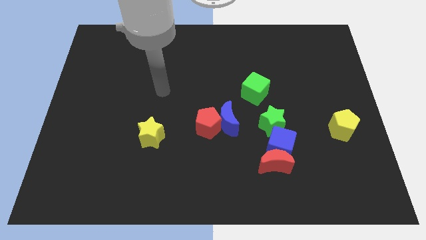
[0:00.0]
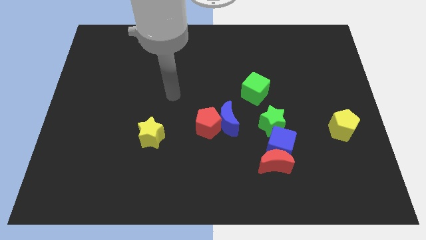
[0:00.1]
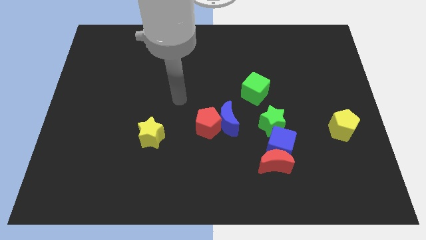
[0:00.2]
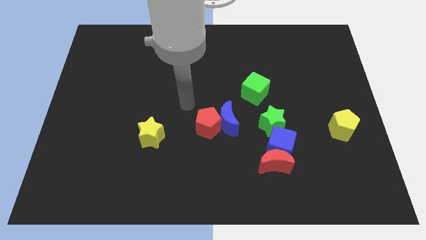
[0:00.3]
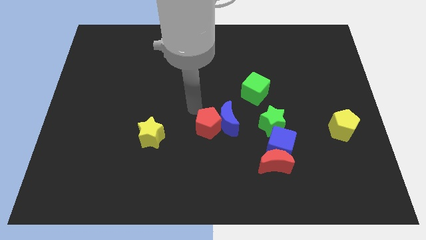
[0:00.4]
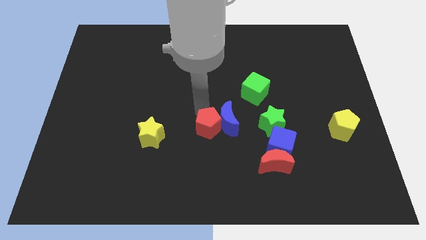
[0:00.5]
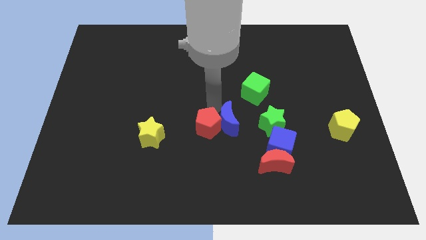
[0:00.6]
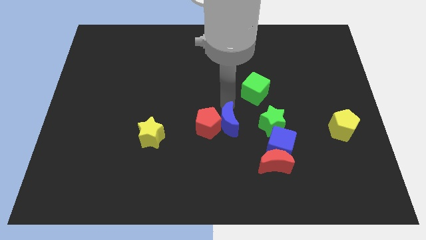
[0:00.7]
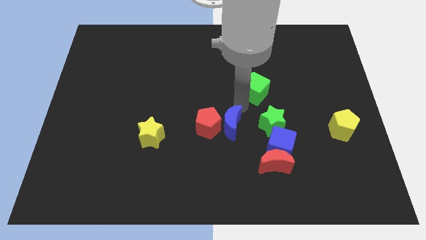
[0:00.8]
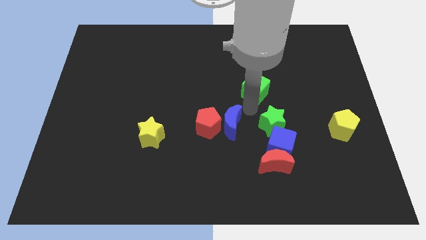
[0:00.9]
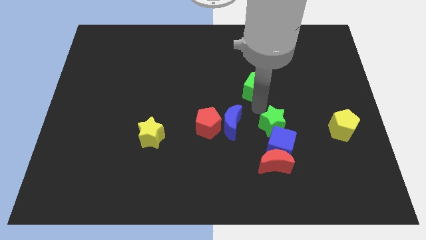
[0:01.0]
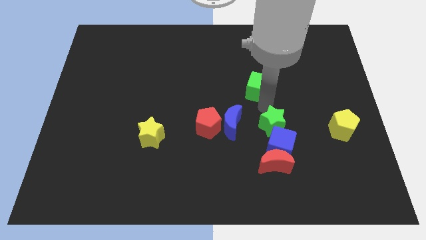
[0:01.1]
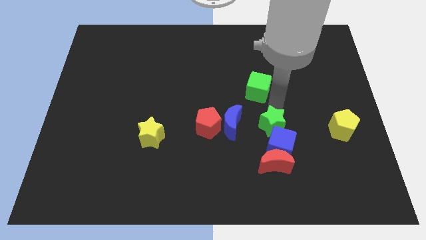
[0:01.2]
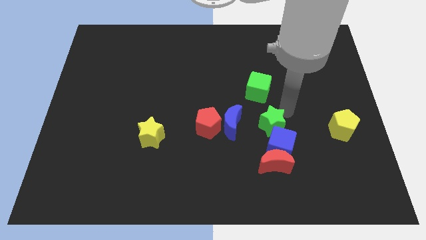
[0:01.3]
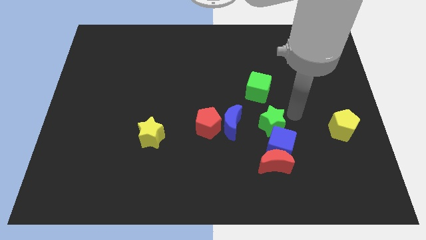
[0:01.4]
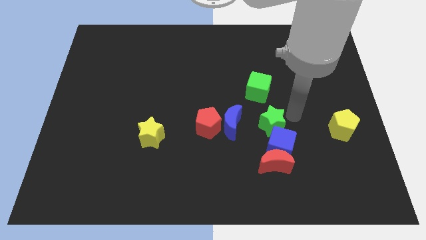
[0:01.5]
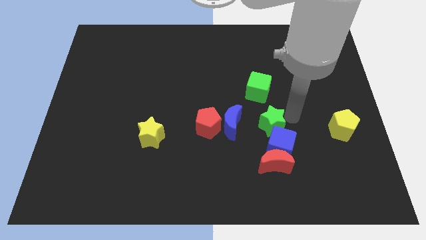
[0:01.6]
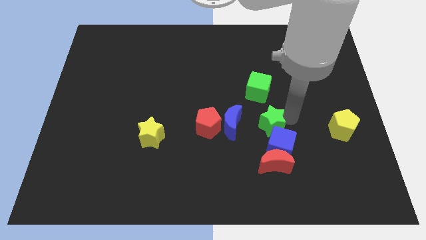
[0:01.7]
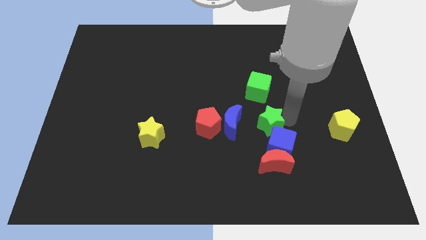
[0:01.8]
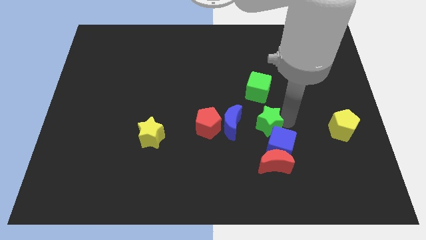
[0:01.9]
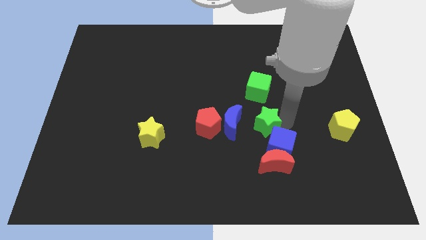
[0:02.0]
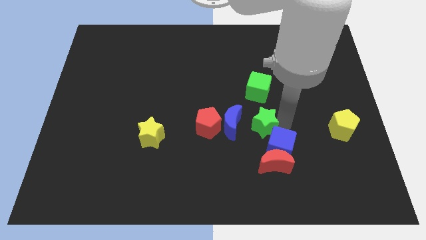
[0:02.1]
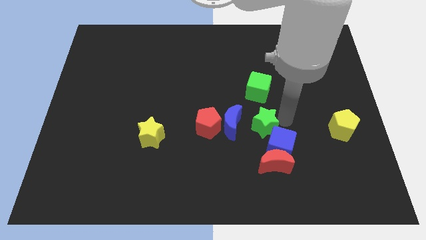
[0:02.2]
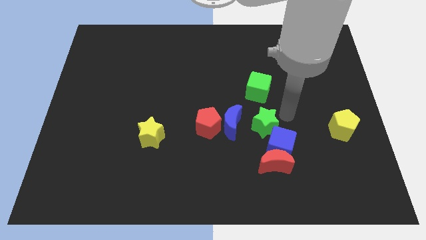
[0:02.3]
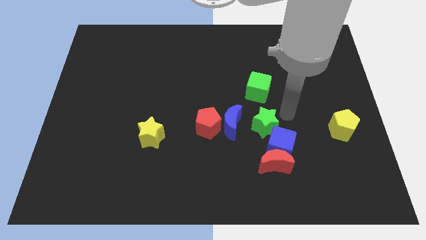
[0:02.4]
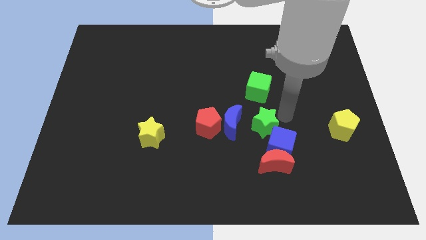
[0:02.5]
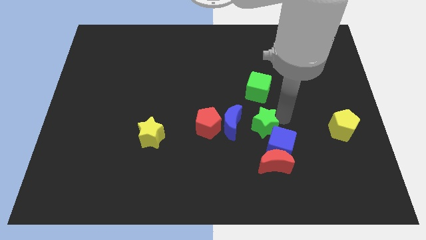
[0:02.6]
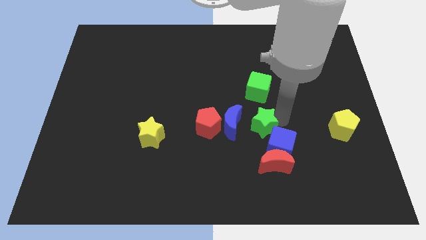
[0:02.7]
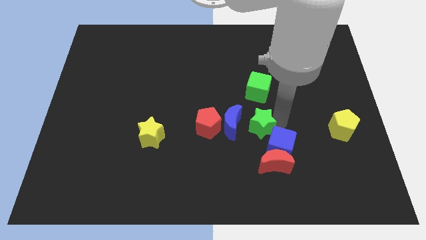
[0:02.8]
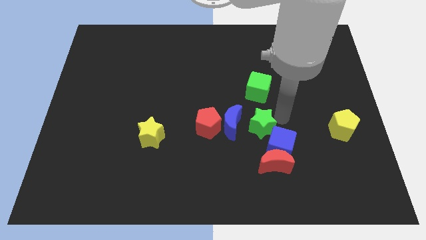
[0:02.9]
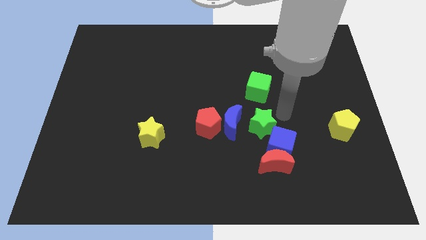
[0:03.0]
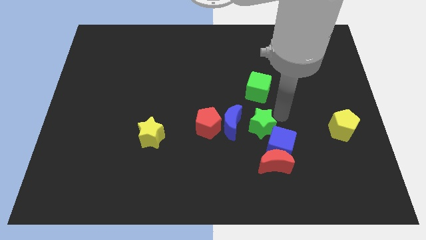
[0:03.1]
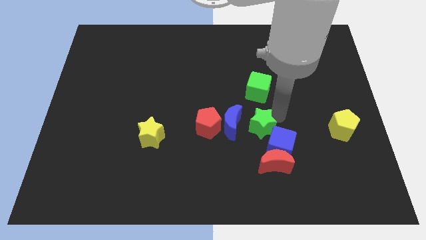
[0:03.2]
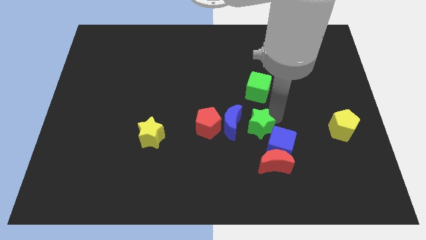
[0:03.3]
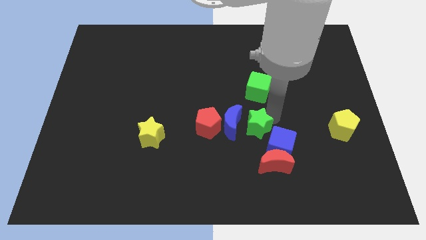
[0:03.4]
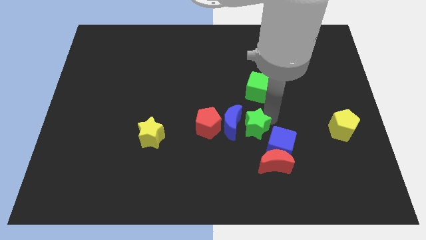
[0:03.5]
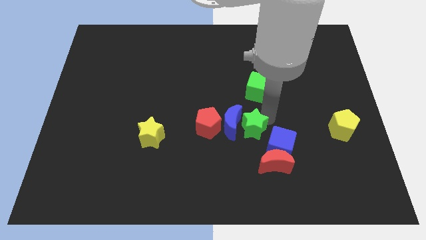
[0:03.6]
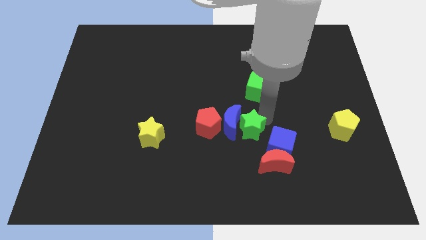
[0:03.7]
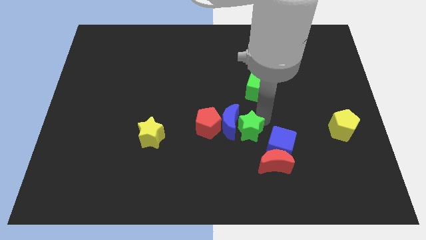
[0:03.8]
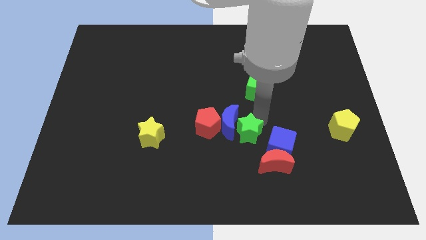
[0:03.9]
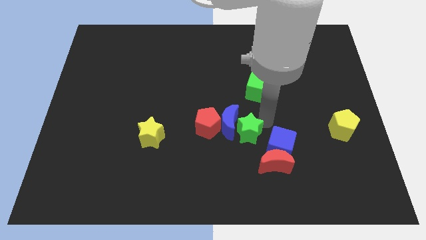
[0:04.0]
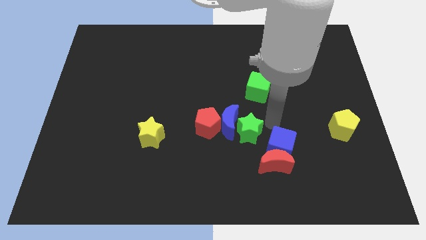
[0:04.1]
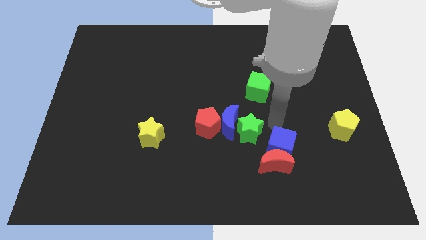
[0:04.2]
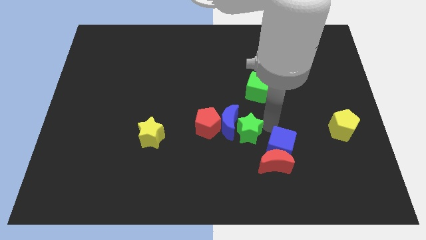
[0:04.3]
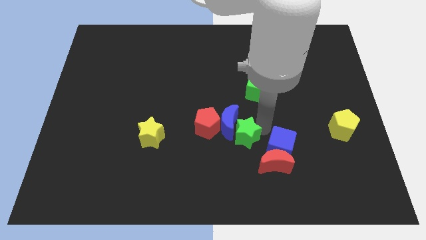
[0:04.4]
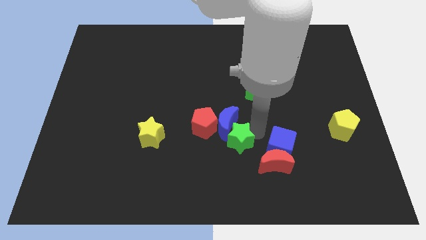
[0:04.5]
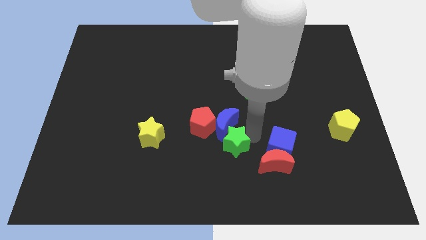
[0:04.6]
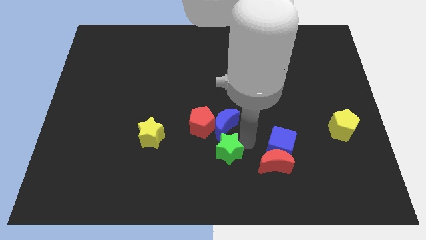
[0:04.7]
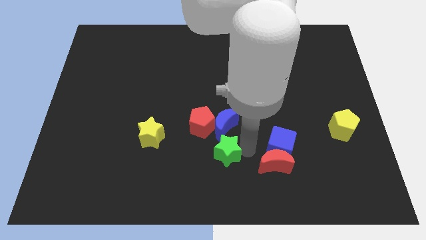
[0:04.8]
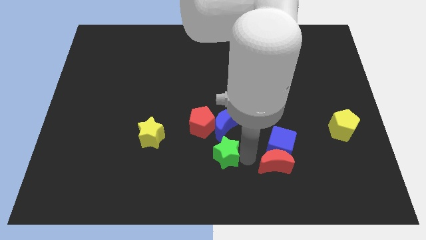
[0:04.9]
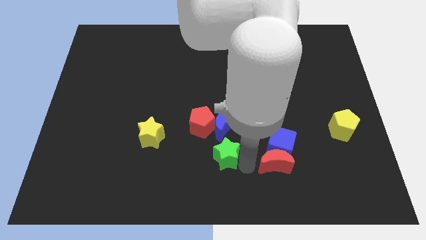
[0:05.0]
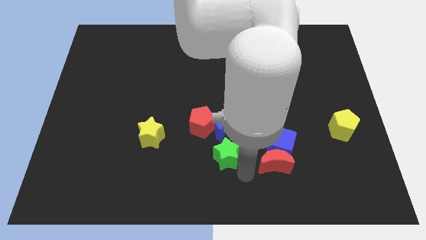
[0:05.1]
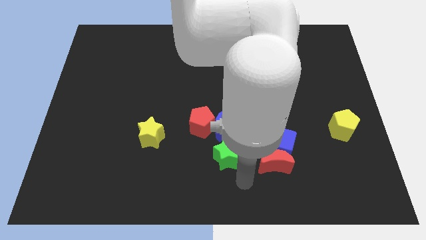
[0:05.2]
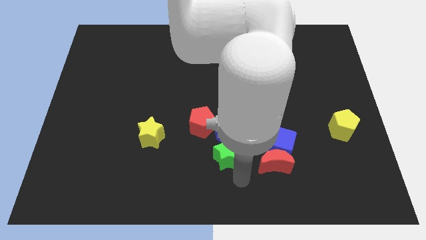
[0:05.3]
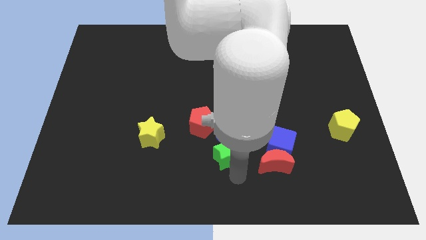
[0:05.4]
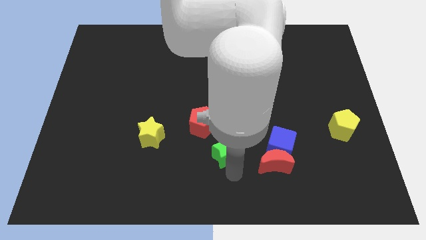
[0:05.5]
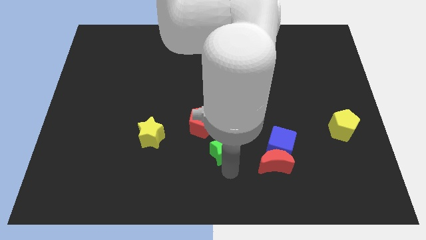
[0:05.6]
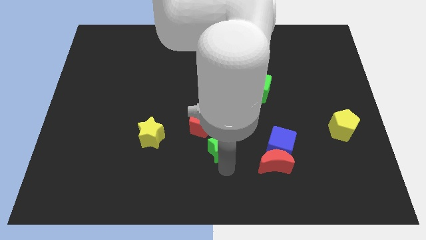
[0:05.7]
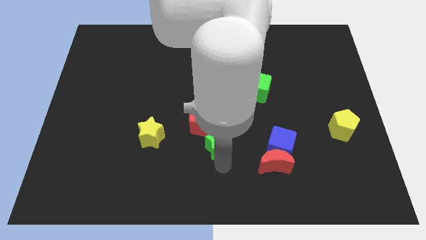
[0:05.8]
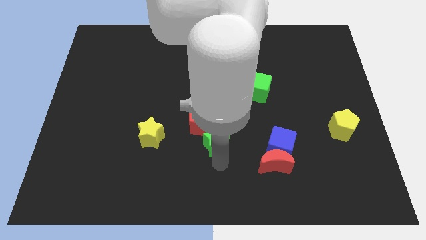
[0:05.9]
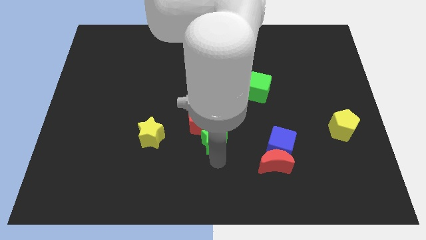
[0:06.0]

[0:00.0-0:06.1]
slide the green star towards the red pentagon

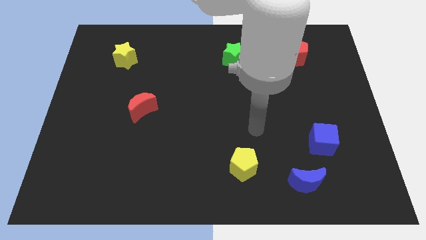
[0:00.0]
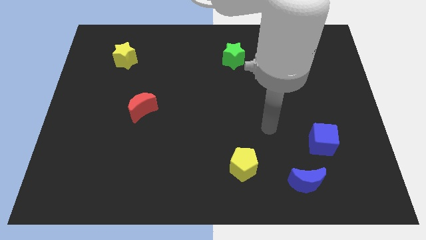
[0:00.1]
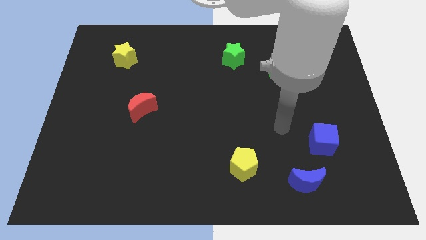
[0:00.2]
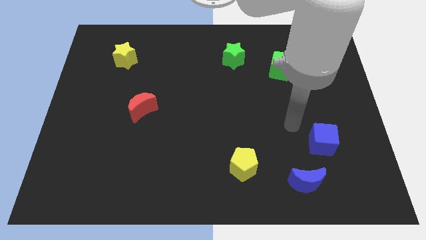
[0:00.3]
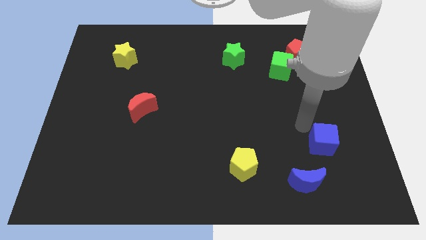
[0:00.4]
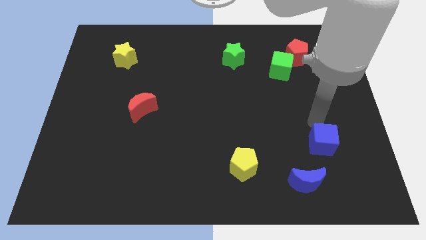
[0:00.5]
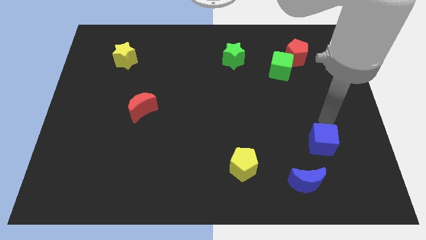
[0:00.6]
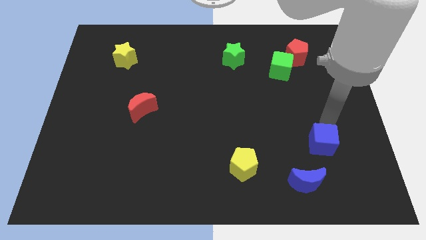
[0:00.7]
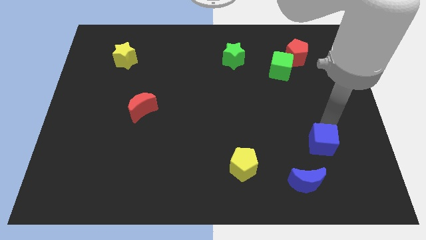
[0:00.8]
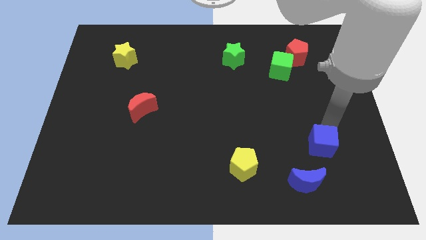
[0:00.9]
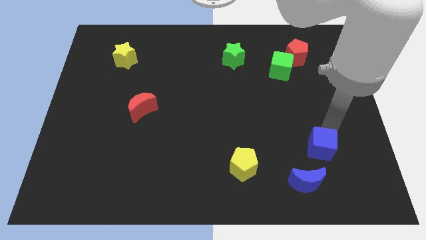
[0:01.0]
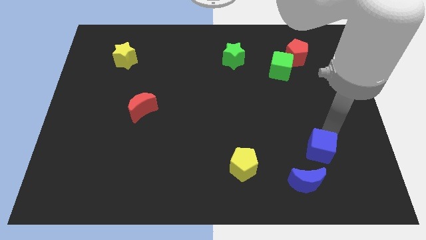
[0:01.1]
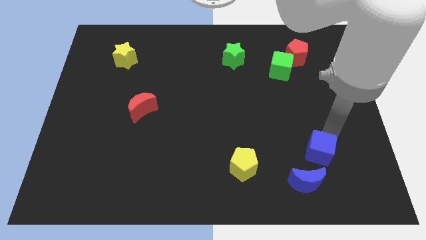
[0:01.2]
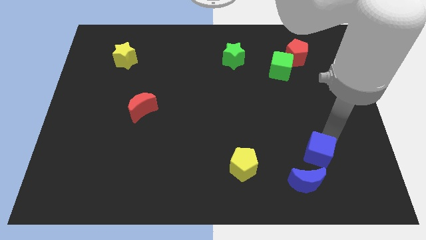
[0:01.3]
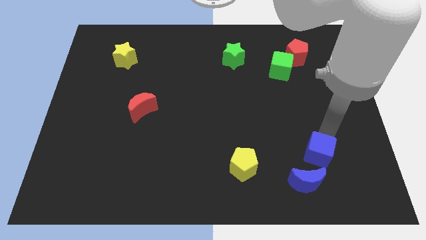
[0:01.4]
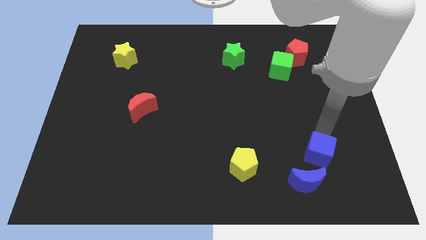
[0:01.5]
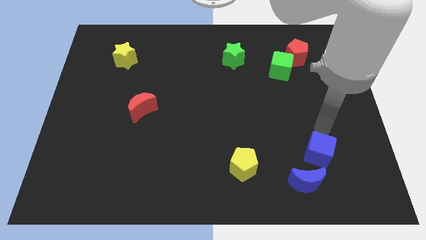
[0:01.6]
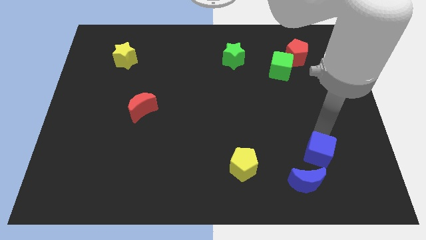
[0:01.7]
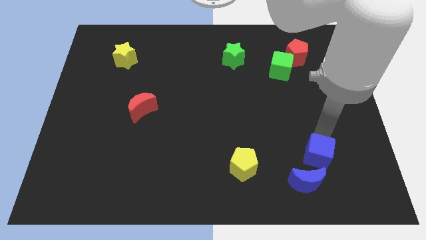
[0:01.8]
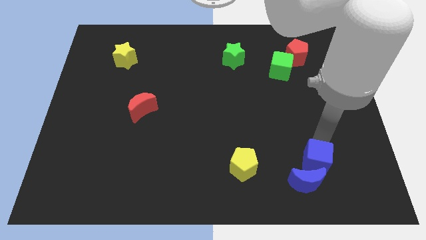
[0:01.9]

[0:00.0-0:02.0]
put the blue cube towards the blue moon
